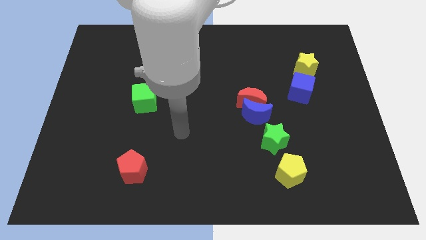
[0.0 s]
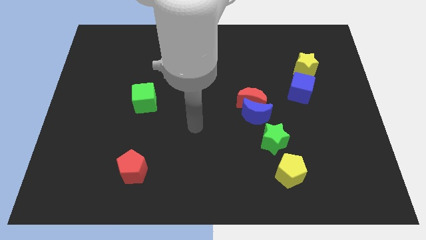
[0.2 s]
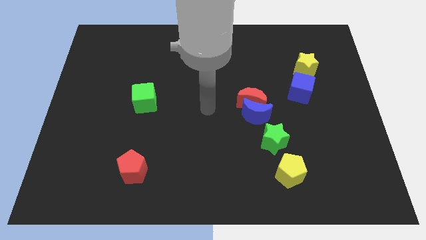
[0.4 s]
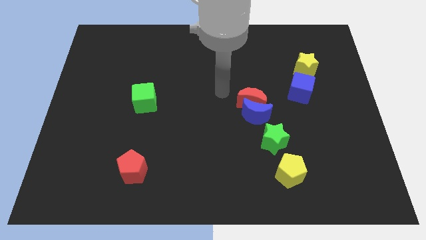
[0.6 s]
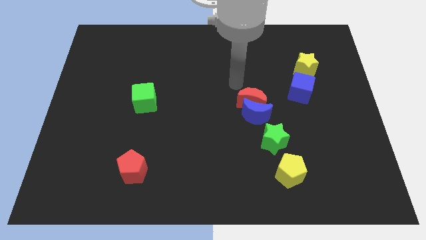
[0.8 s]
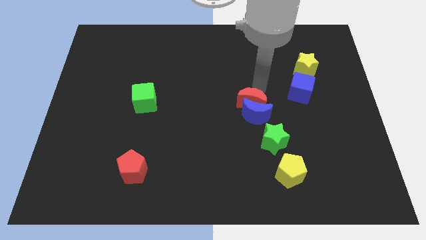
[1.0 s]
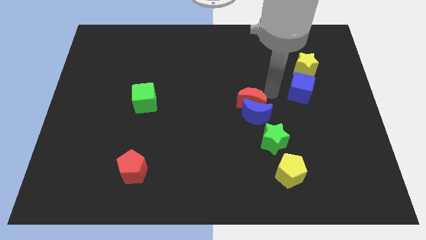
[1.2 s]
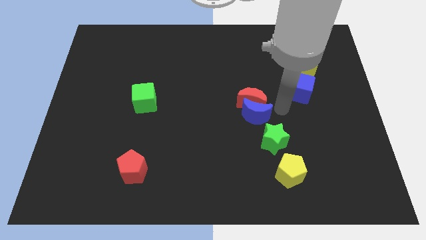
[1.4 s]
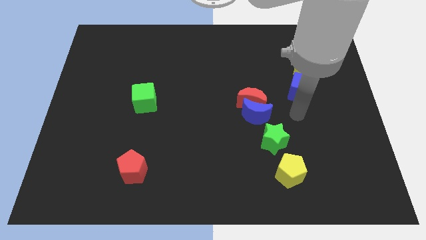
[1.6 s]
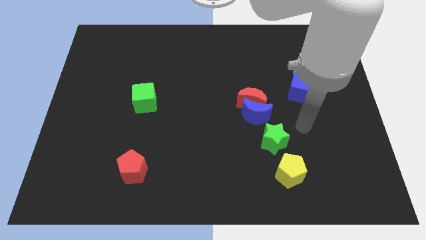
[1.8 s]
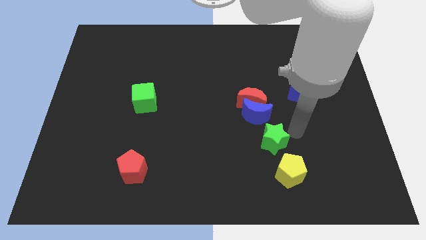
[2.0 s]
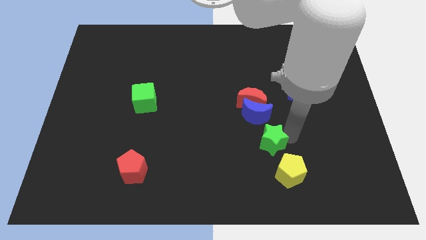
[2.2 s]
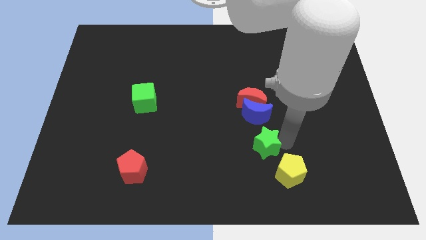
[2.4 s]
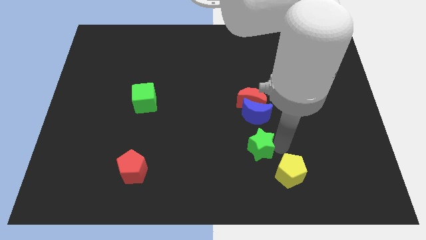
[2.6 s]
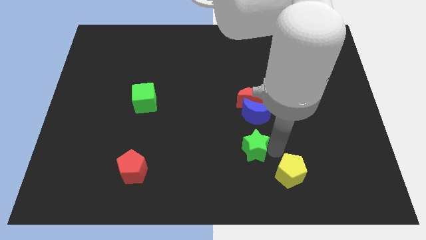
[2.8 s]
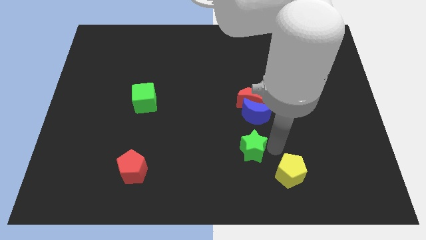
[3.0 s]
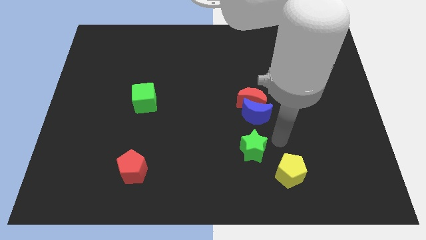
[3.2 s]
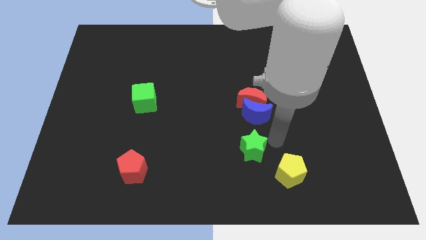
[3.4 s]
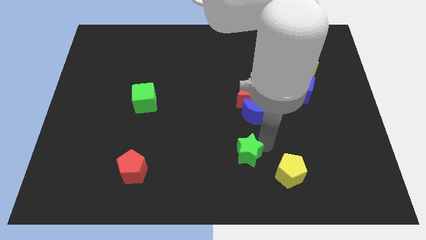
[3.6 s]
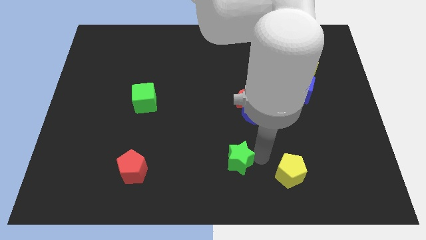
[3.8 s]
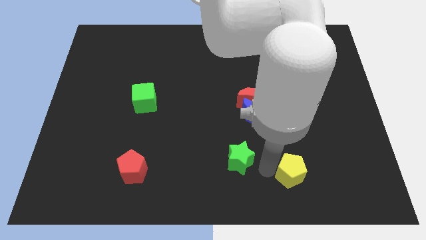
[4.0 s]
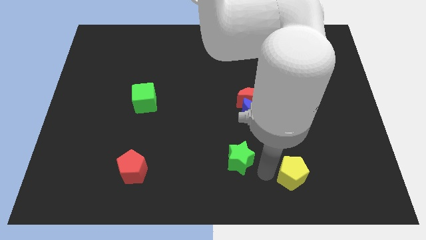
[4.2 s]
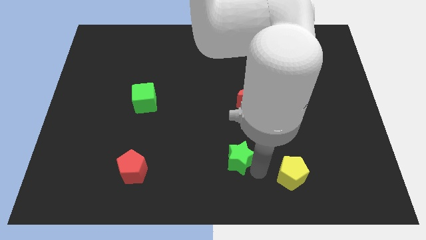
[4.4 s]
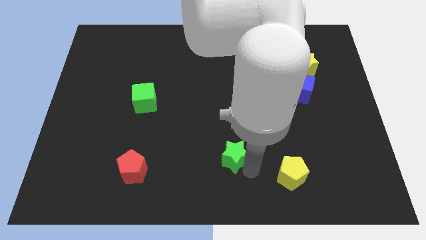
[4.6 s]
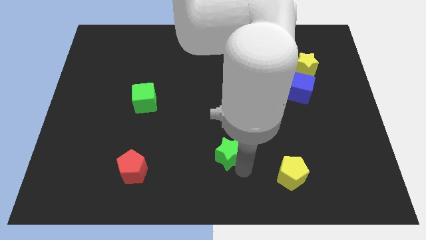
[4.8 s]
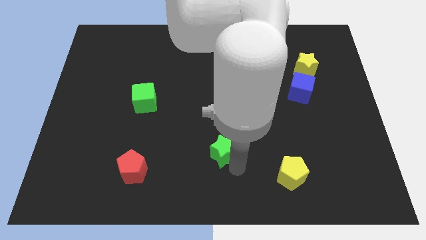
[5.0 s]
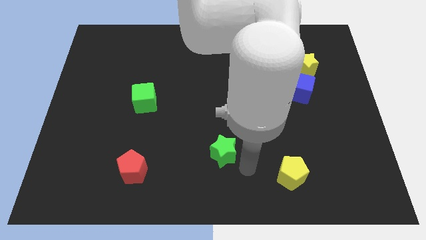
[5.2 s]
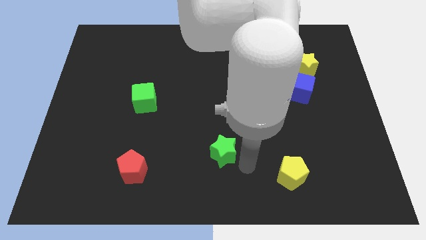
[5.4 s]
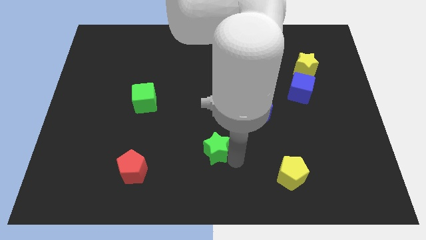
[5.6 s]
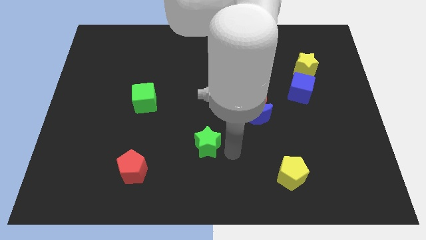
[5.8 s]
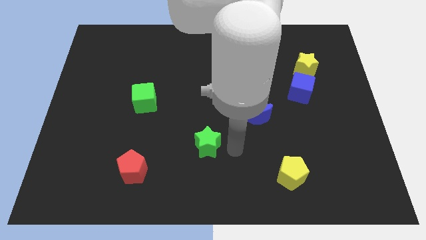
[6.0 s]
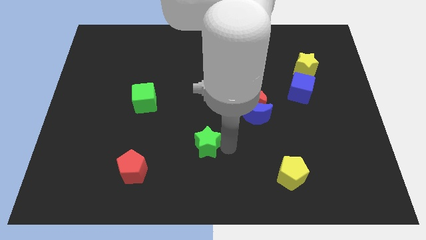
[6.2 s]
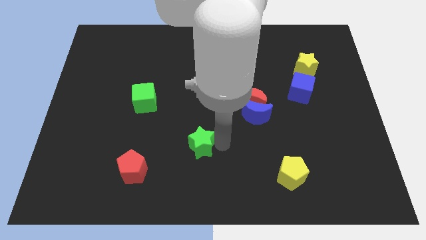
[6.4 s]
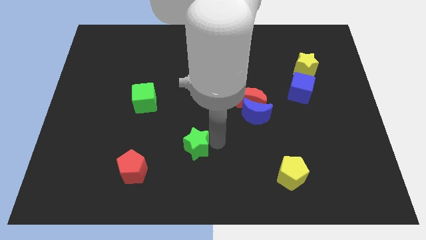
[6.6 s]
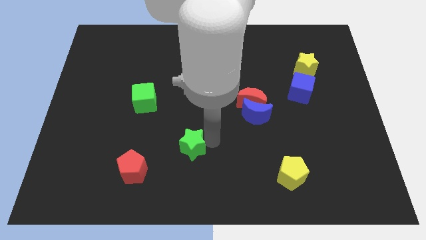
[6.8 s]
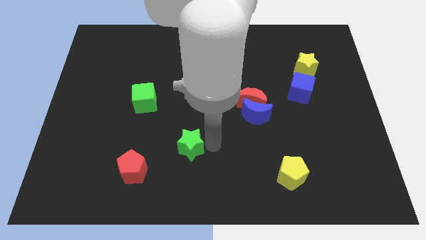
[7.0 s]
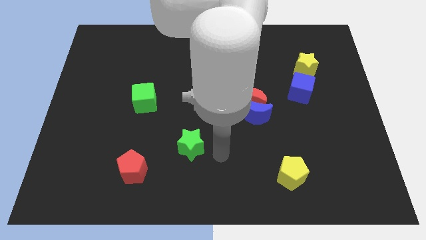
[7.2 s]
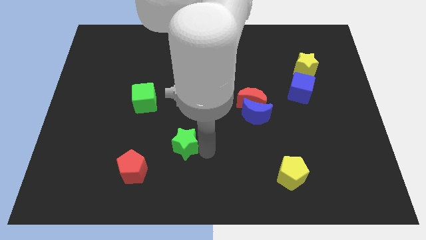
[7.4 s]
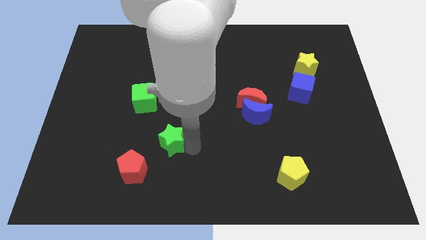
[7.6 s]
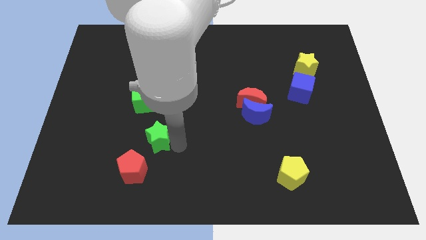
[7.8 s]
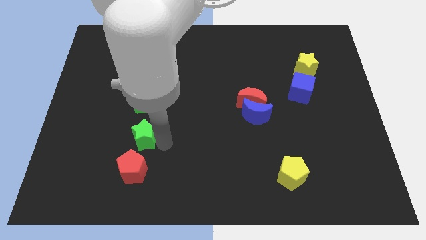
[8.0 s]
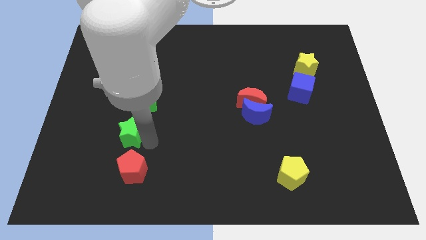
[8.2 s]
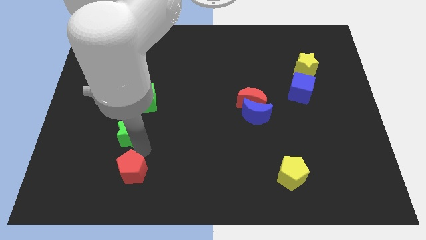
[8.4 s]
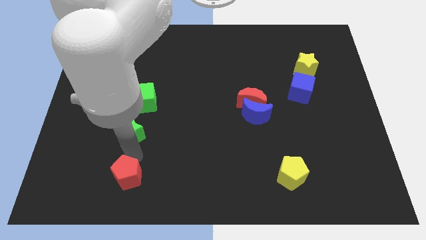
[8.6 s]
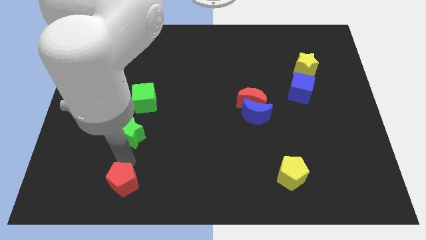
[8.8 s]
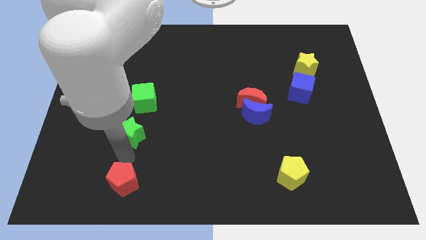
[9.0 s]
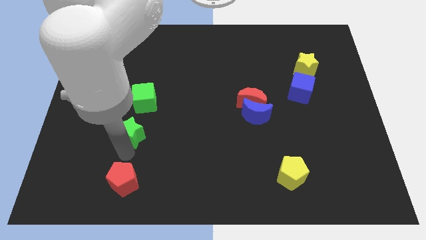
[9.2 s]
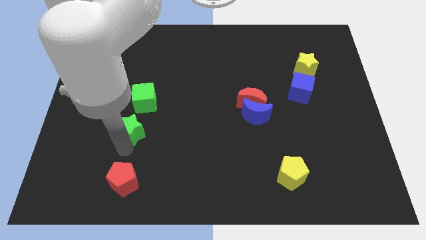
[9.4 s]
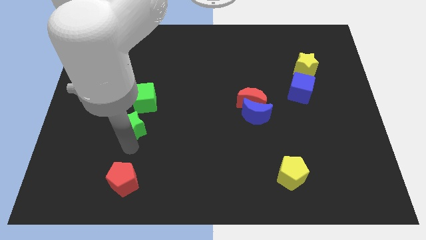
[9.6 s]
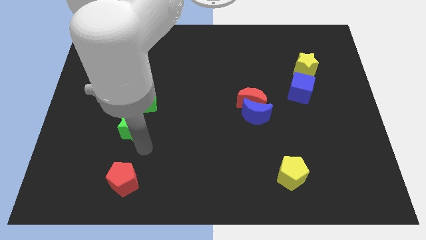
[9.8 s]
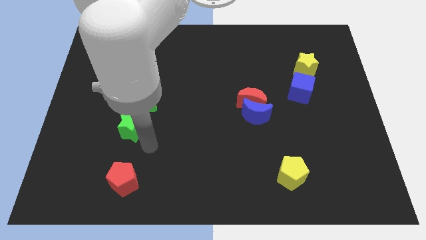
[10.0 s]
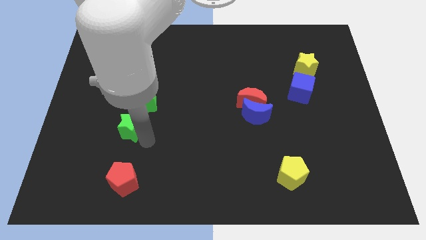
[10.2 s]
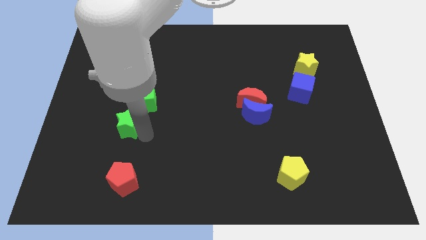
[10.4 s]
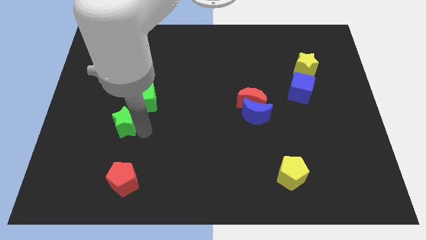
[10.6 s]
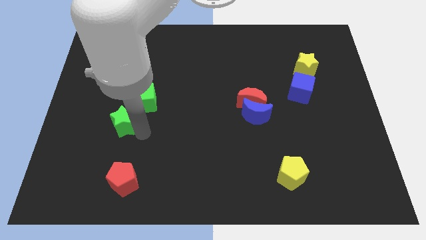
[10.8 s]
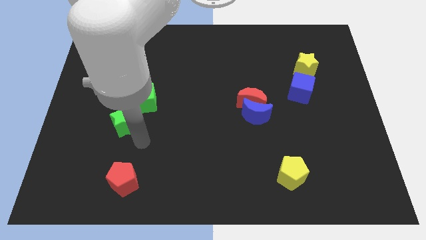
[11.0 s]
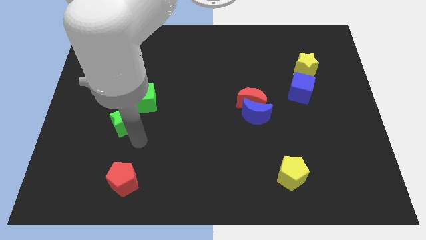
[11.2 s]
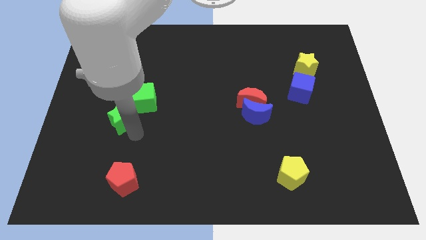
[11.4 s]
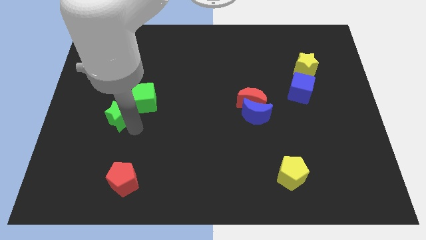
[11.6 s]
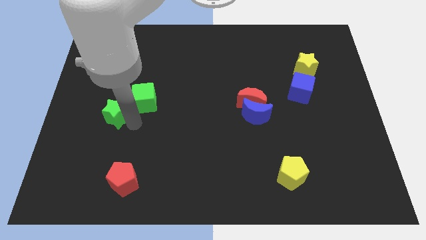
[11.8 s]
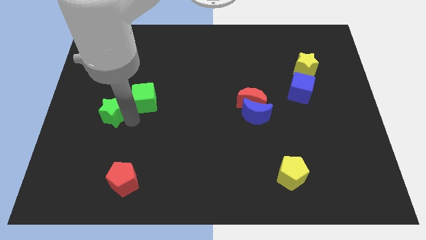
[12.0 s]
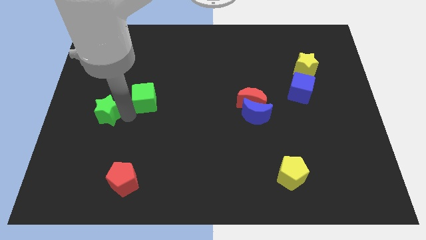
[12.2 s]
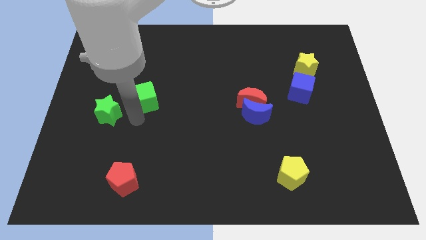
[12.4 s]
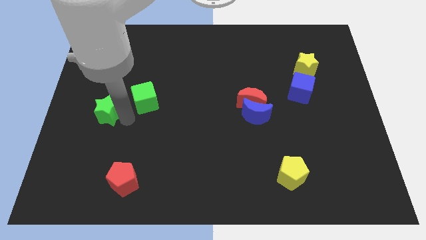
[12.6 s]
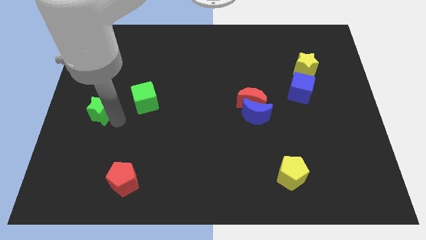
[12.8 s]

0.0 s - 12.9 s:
put the green star to the left side

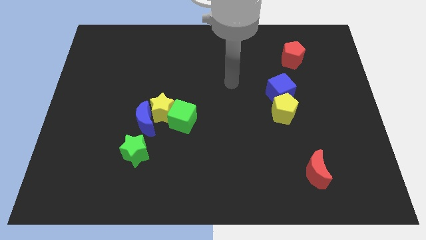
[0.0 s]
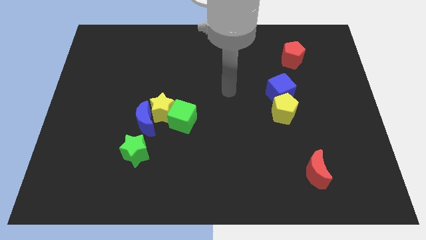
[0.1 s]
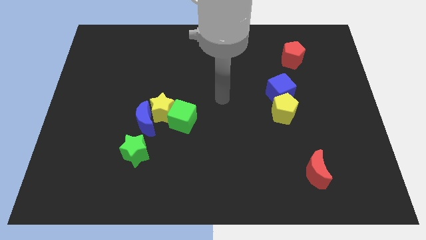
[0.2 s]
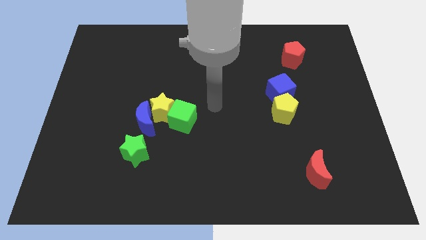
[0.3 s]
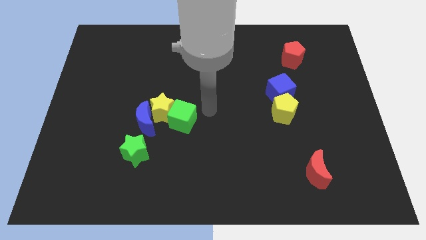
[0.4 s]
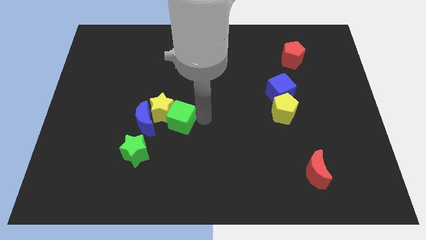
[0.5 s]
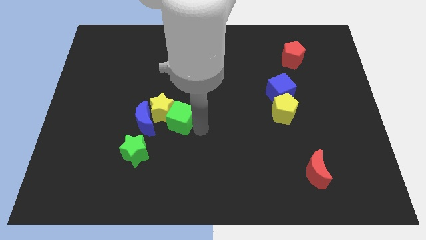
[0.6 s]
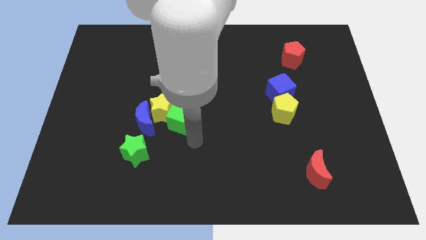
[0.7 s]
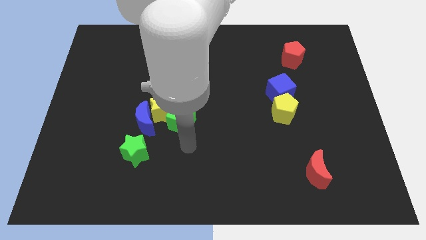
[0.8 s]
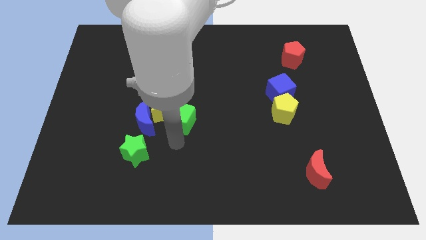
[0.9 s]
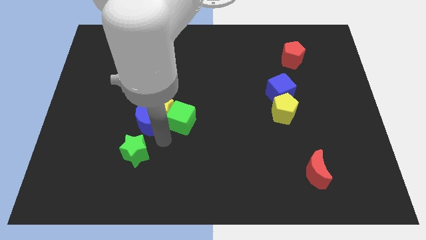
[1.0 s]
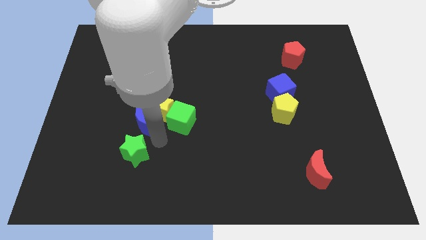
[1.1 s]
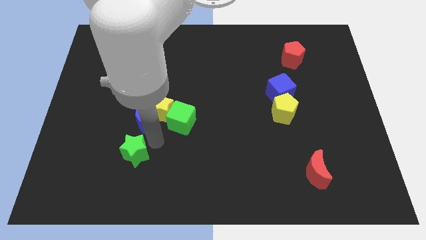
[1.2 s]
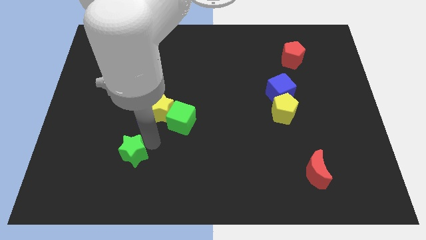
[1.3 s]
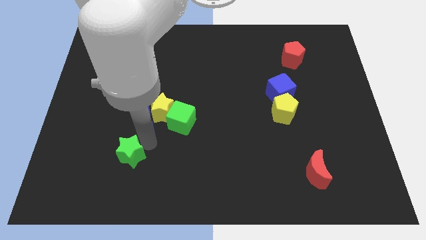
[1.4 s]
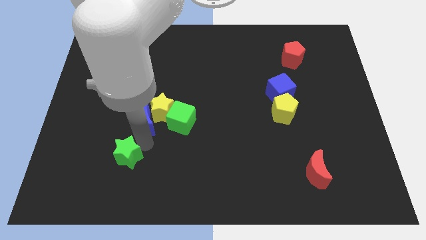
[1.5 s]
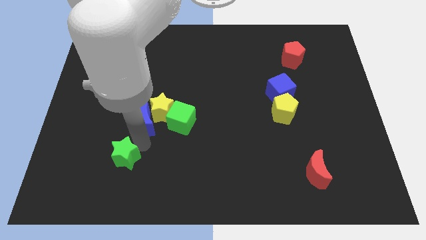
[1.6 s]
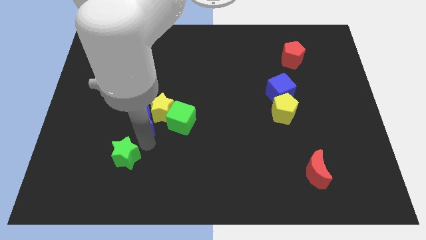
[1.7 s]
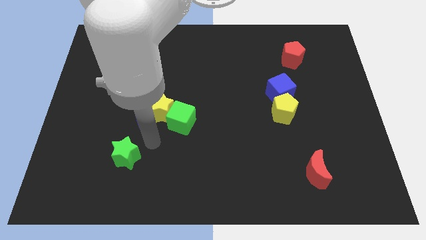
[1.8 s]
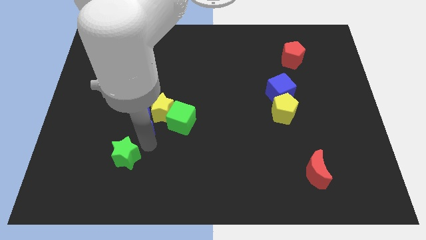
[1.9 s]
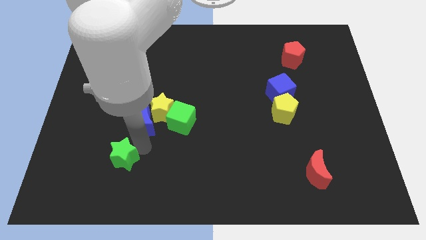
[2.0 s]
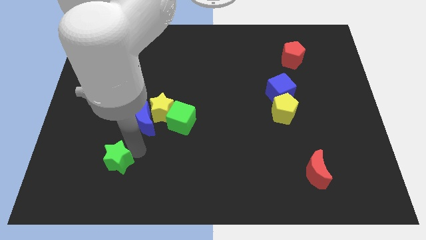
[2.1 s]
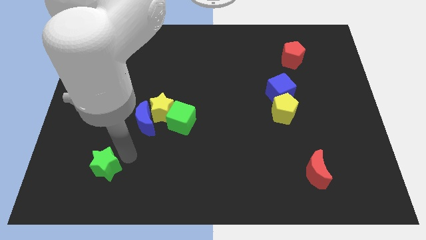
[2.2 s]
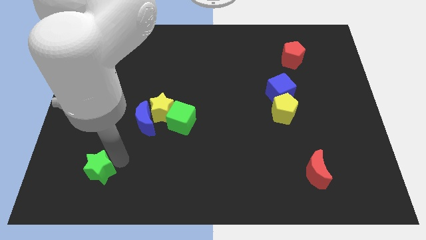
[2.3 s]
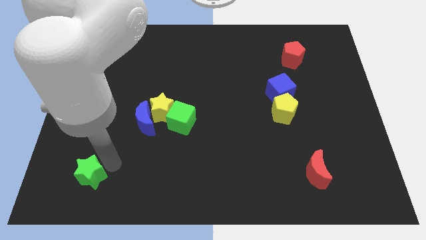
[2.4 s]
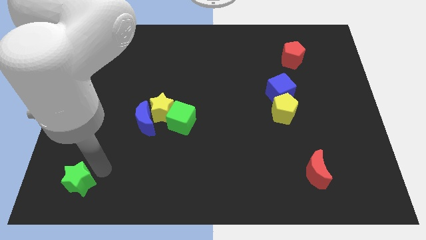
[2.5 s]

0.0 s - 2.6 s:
put the green star to the bottom left
